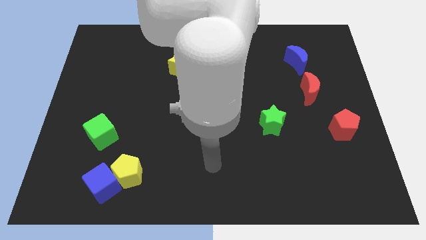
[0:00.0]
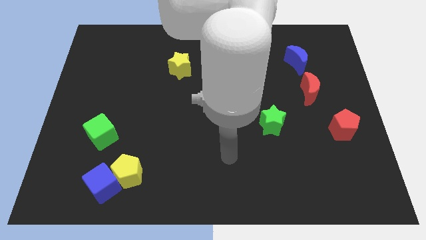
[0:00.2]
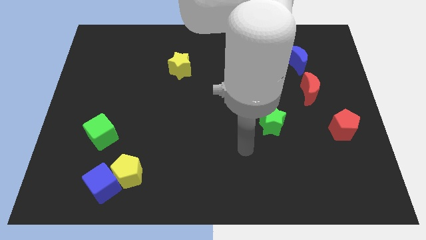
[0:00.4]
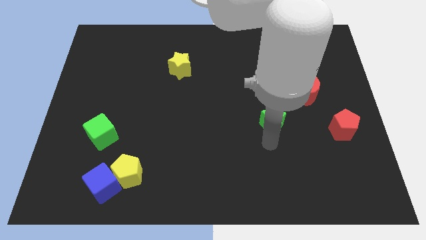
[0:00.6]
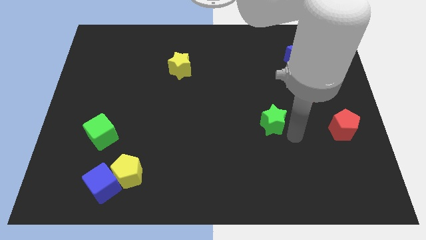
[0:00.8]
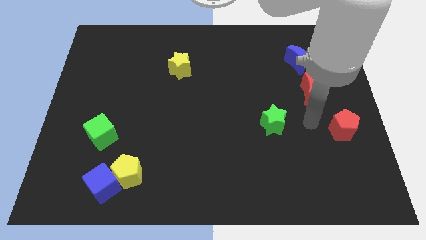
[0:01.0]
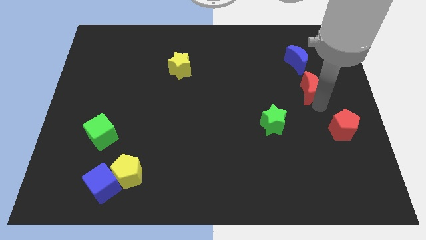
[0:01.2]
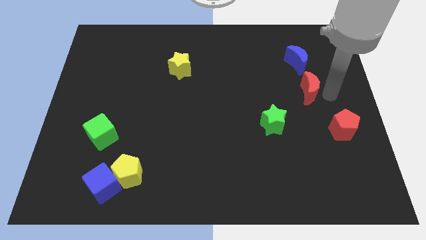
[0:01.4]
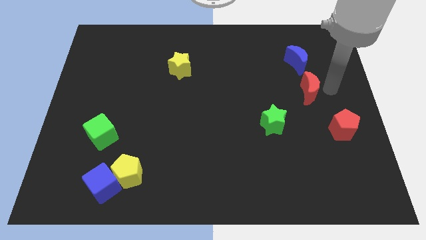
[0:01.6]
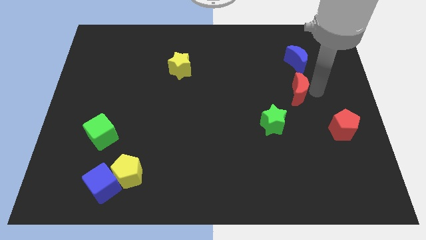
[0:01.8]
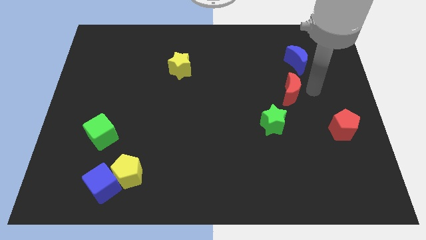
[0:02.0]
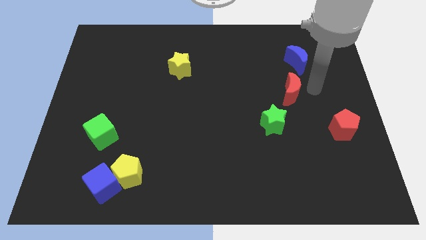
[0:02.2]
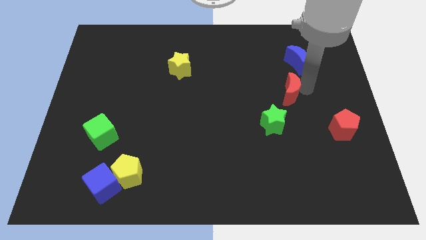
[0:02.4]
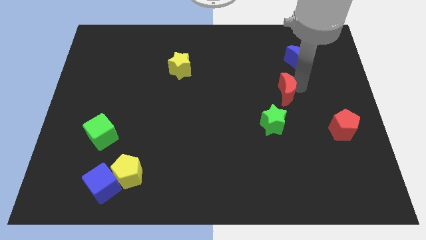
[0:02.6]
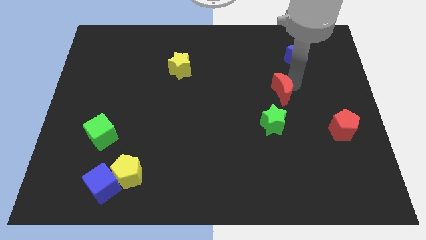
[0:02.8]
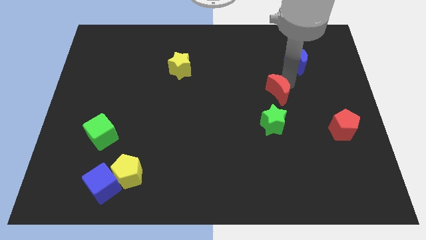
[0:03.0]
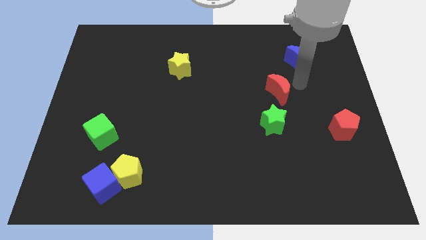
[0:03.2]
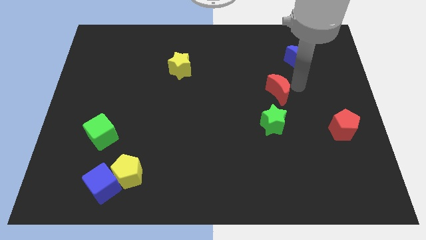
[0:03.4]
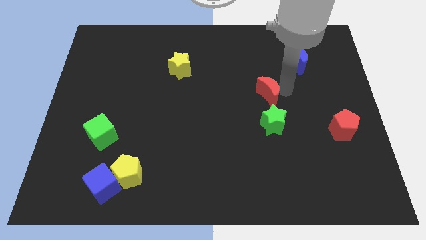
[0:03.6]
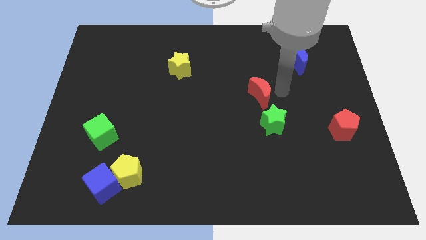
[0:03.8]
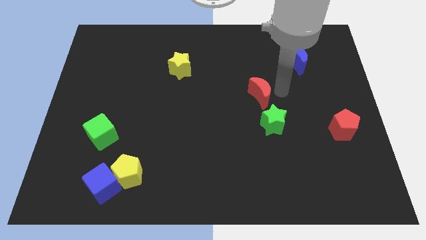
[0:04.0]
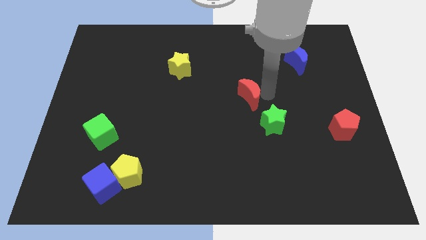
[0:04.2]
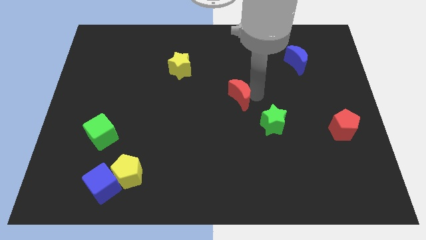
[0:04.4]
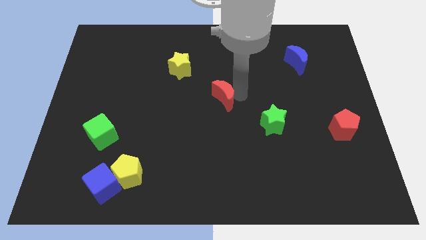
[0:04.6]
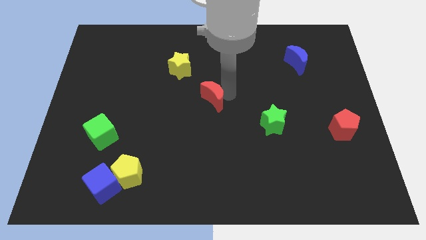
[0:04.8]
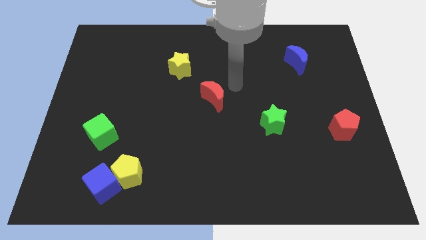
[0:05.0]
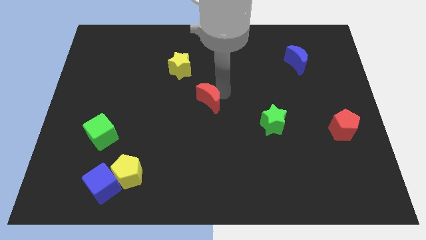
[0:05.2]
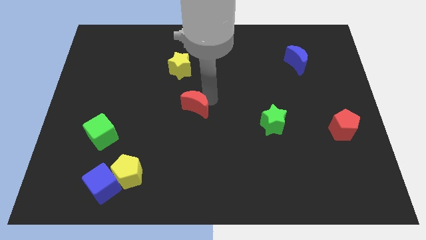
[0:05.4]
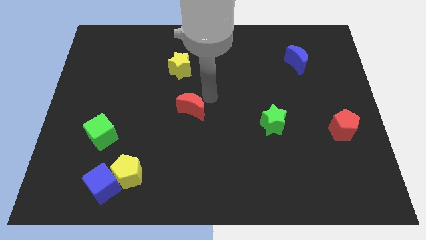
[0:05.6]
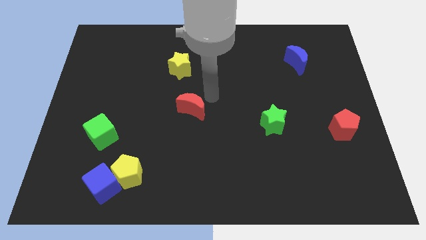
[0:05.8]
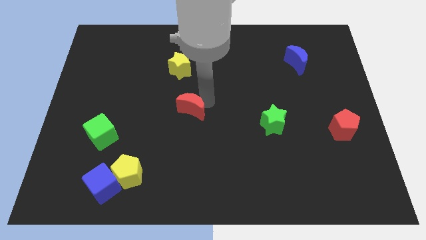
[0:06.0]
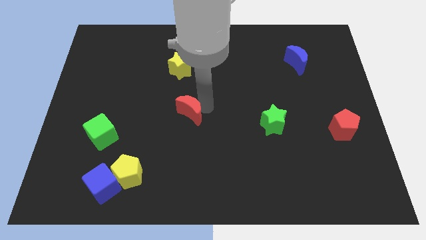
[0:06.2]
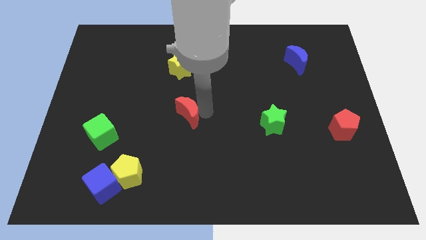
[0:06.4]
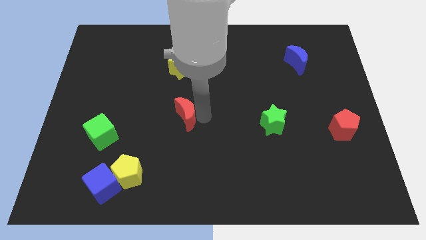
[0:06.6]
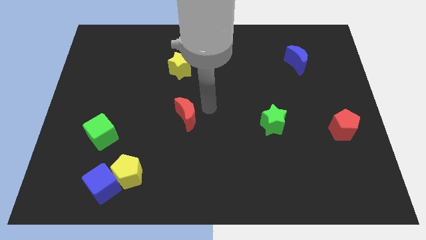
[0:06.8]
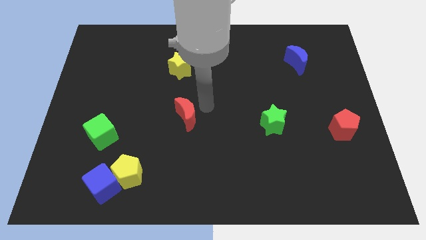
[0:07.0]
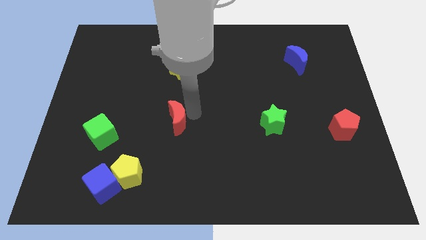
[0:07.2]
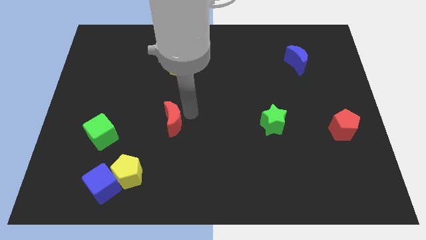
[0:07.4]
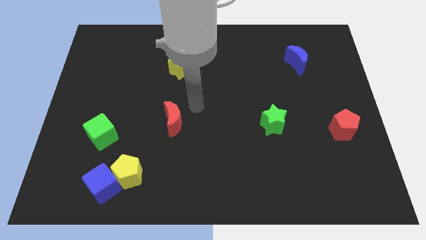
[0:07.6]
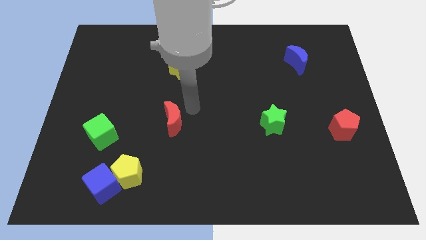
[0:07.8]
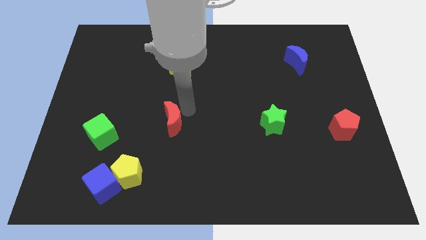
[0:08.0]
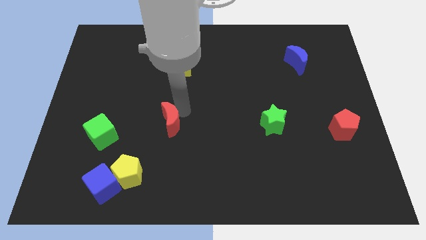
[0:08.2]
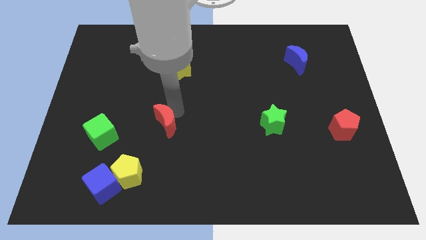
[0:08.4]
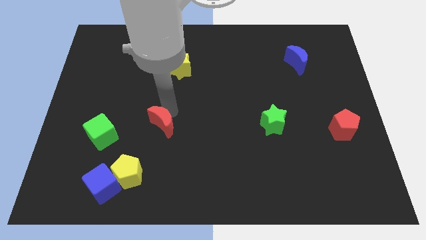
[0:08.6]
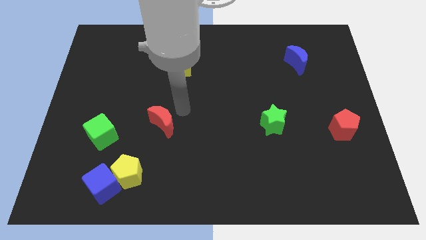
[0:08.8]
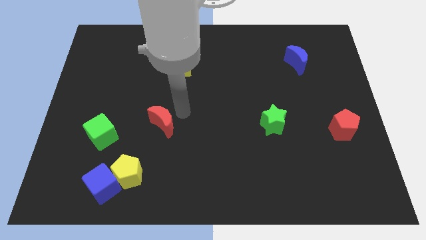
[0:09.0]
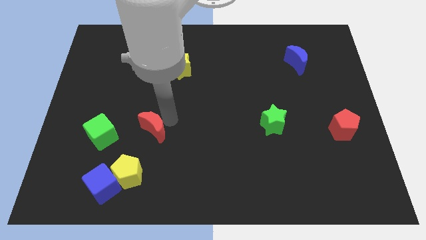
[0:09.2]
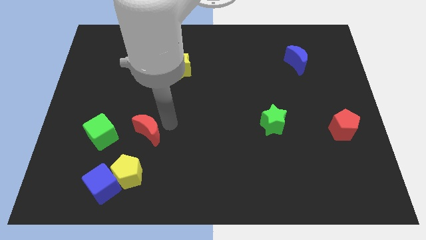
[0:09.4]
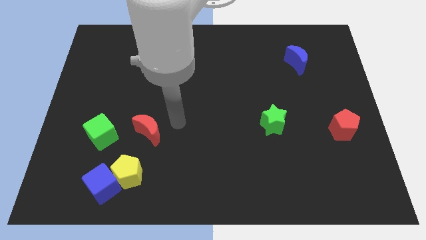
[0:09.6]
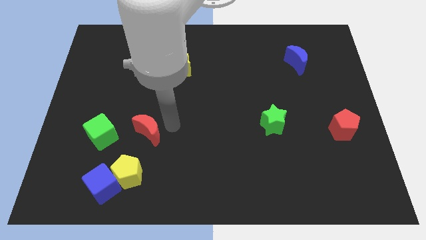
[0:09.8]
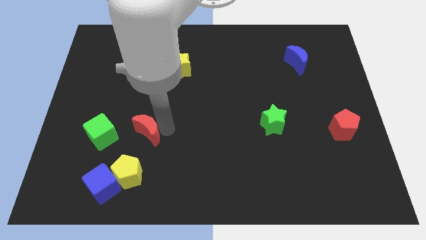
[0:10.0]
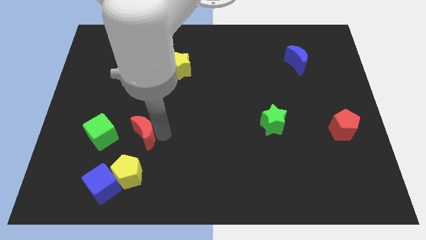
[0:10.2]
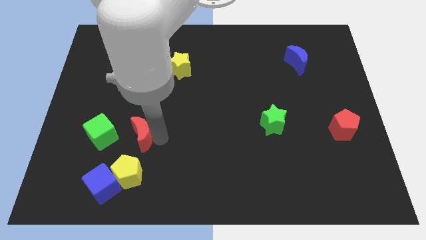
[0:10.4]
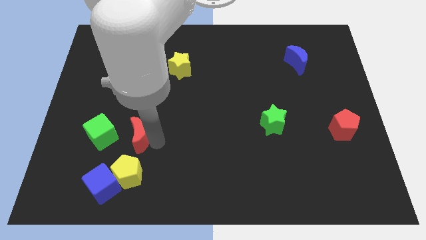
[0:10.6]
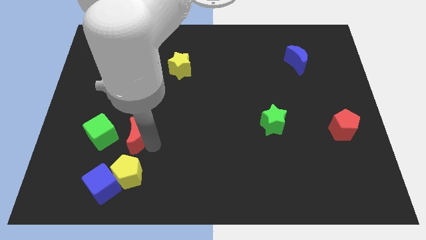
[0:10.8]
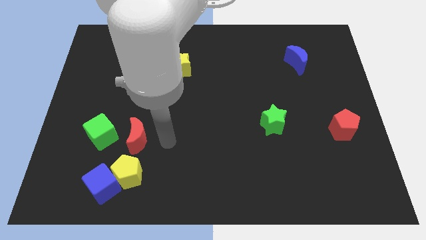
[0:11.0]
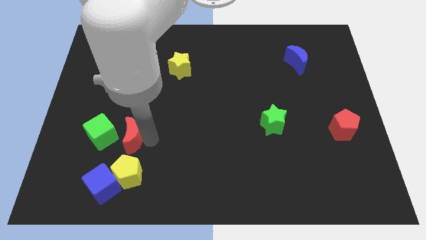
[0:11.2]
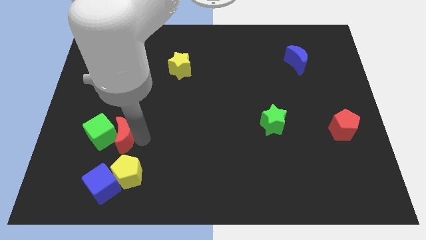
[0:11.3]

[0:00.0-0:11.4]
put the red moon close to the green cube

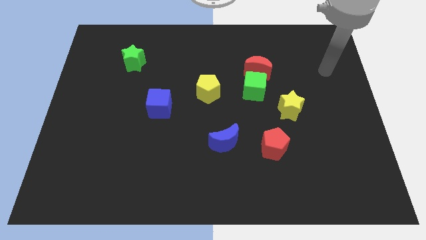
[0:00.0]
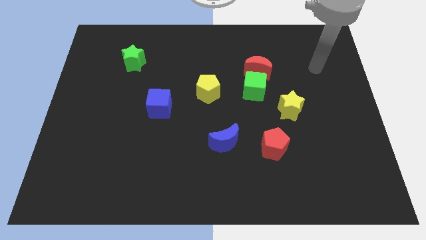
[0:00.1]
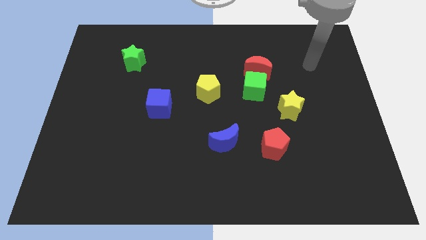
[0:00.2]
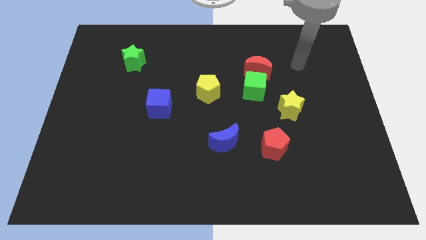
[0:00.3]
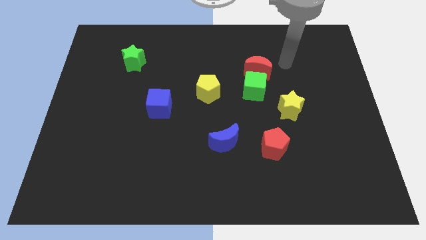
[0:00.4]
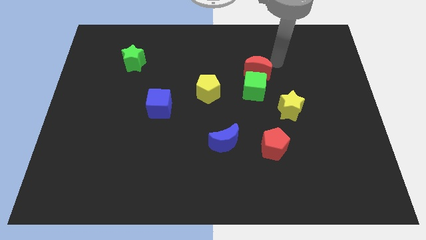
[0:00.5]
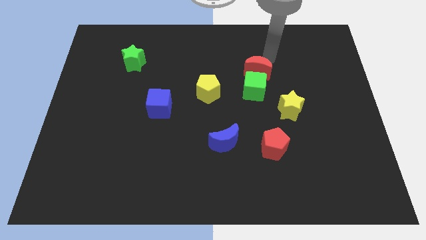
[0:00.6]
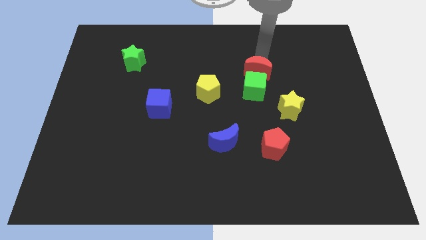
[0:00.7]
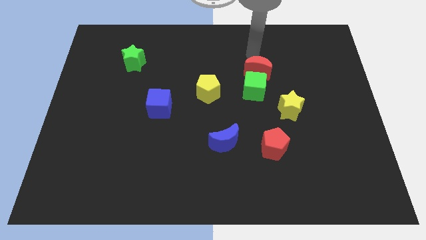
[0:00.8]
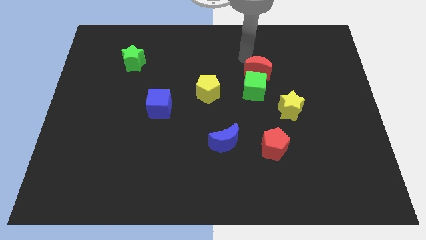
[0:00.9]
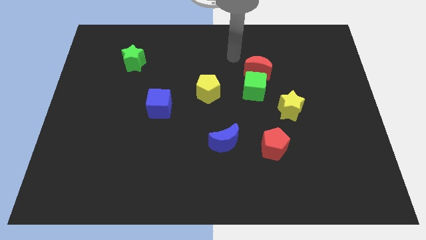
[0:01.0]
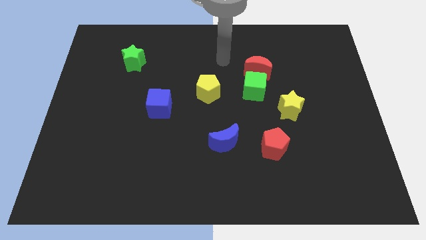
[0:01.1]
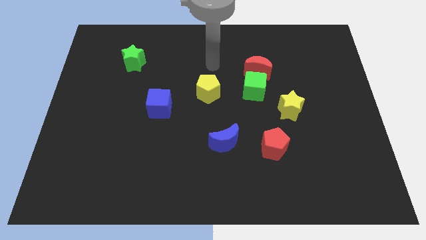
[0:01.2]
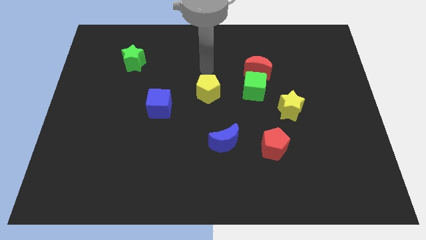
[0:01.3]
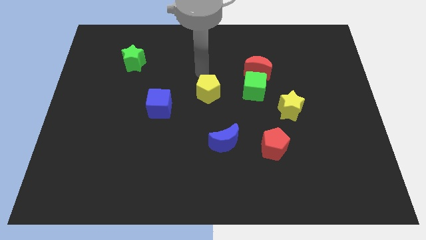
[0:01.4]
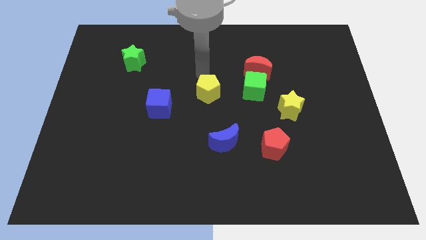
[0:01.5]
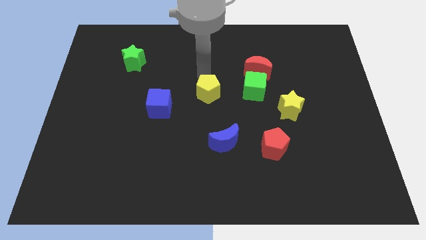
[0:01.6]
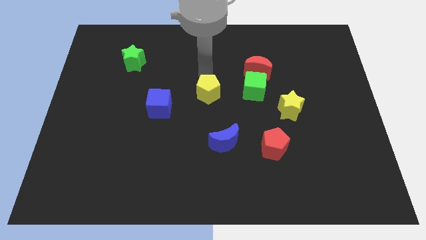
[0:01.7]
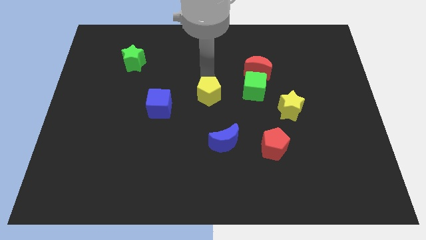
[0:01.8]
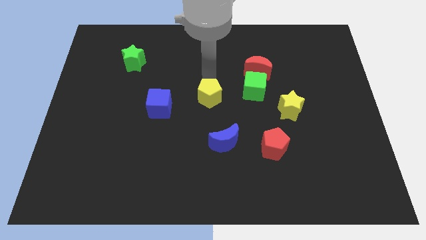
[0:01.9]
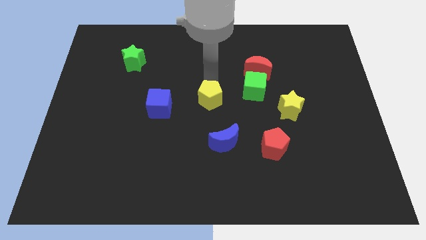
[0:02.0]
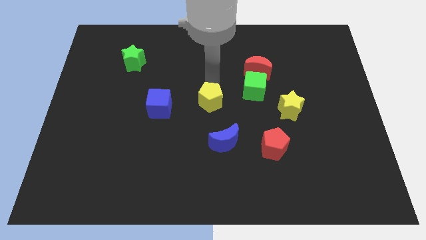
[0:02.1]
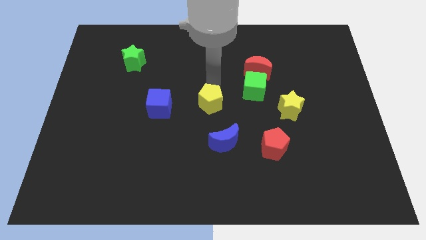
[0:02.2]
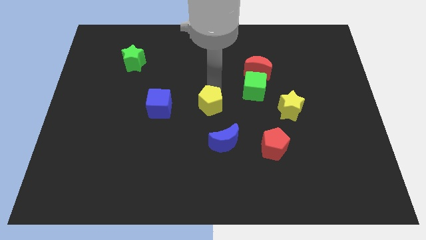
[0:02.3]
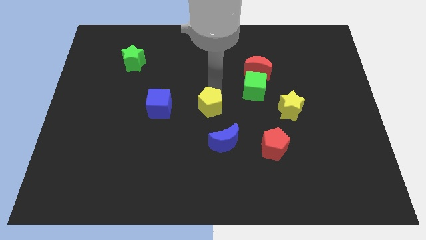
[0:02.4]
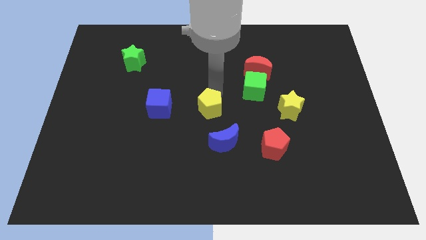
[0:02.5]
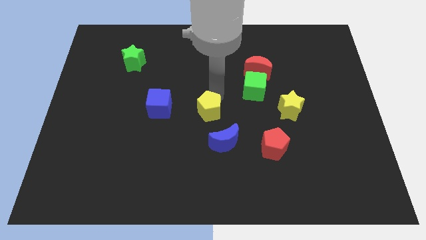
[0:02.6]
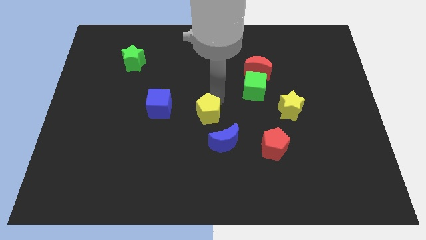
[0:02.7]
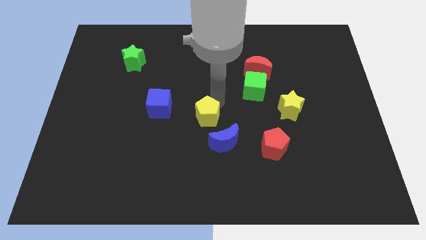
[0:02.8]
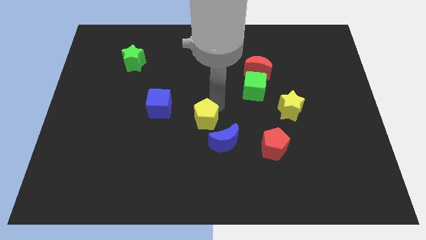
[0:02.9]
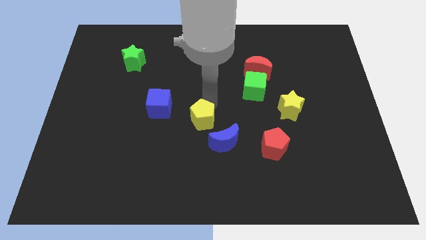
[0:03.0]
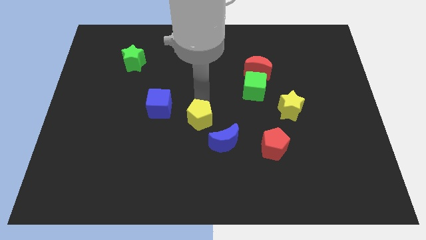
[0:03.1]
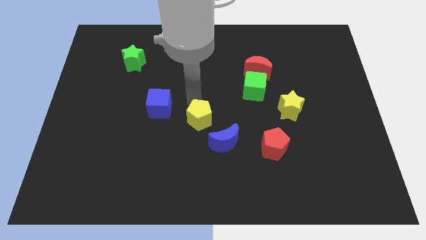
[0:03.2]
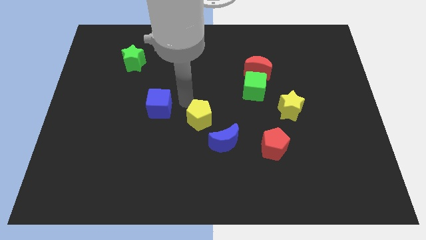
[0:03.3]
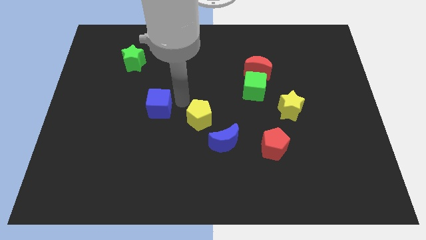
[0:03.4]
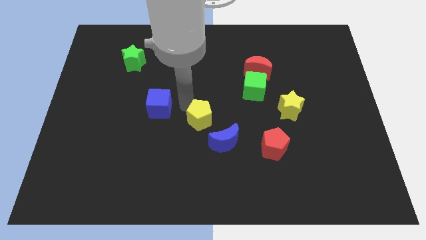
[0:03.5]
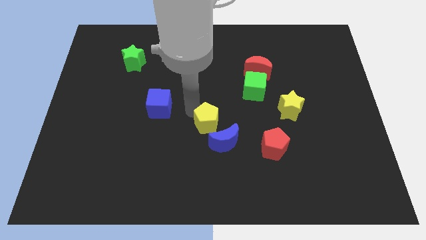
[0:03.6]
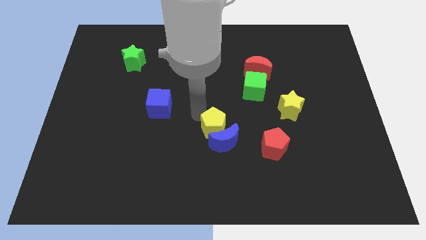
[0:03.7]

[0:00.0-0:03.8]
move the yellow pentagon towards the blue moon
